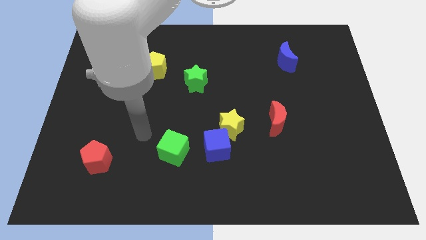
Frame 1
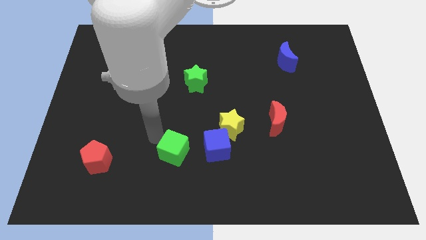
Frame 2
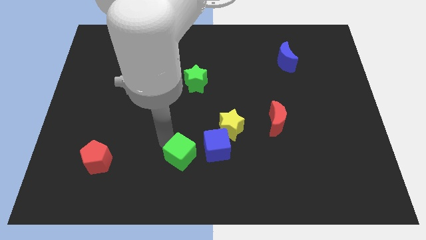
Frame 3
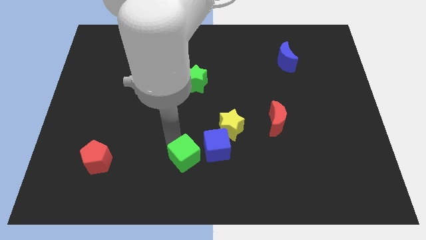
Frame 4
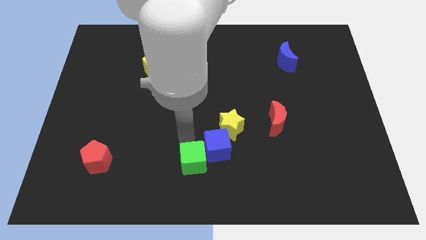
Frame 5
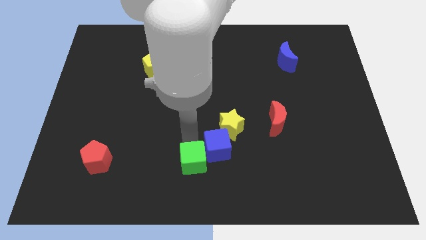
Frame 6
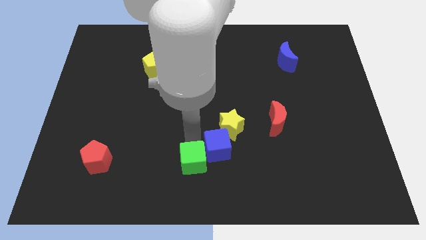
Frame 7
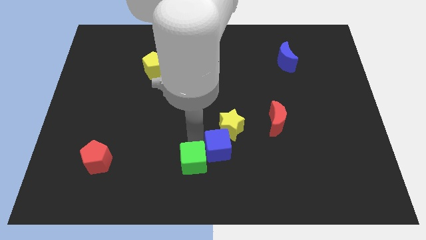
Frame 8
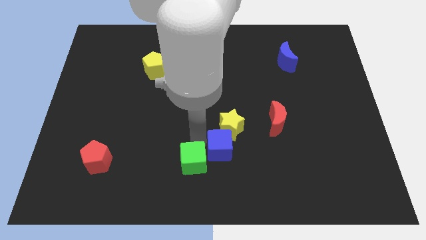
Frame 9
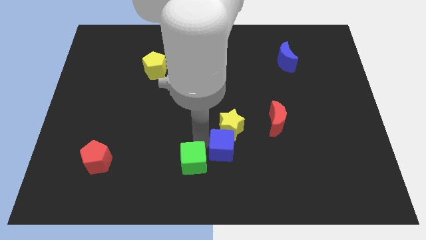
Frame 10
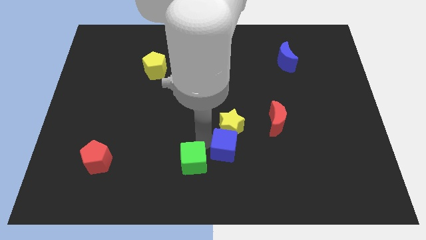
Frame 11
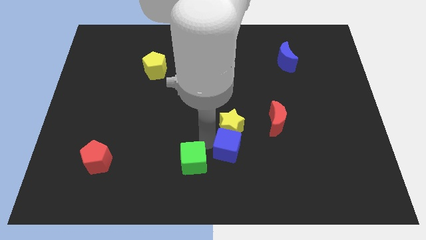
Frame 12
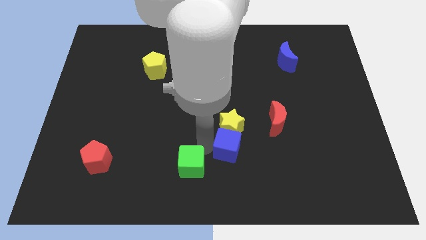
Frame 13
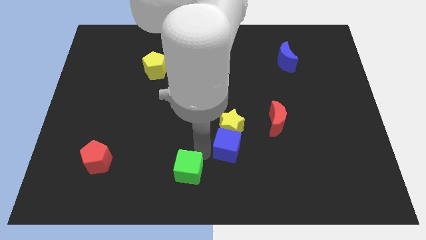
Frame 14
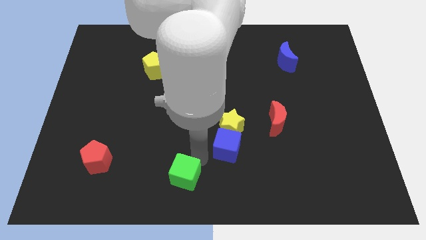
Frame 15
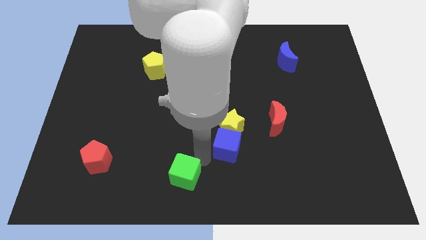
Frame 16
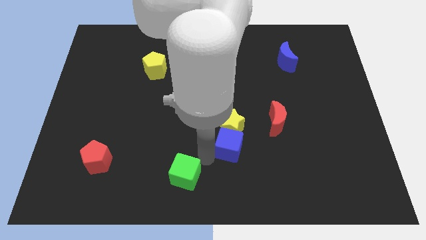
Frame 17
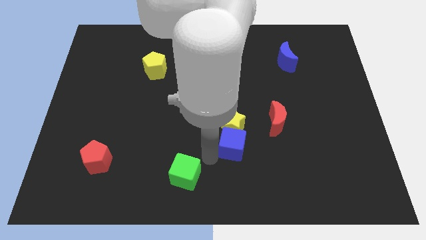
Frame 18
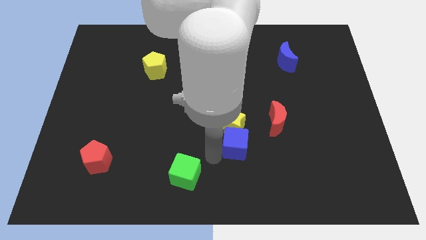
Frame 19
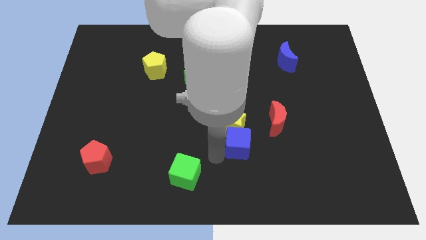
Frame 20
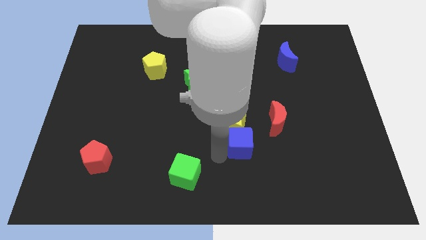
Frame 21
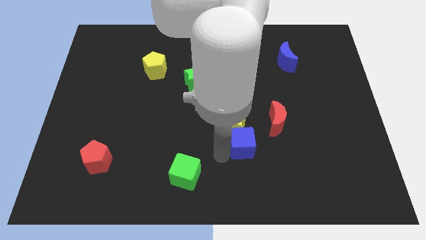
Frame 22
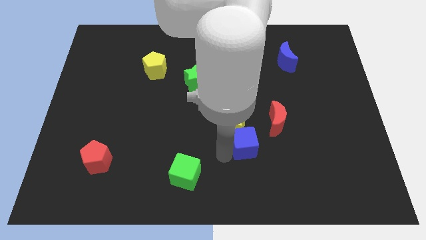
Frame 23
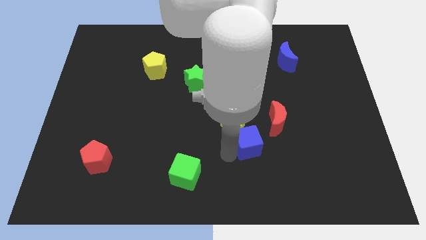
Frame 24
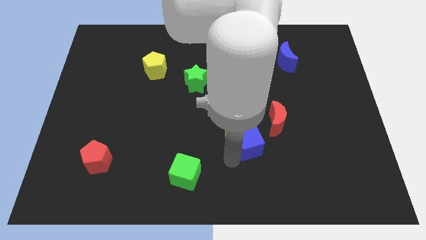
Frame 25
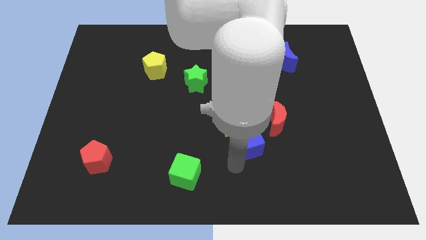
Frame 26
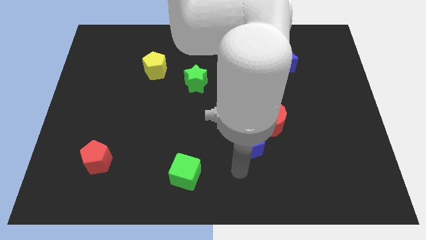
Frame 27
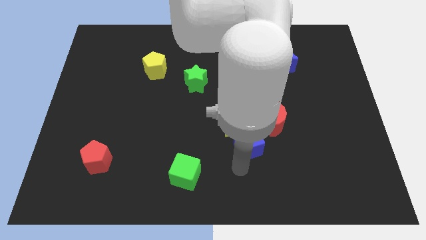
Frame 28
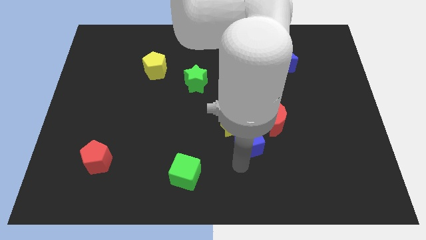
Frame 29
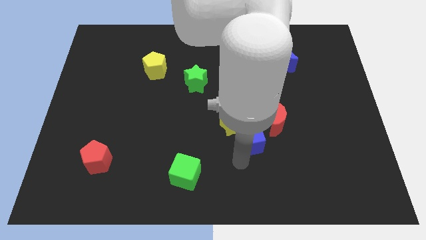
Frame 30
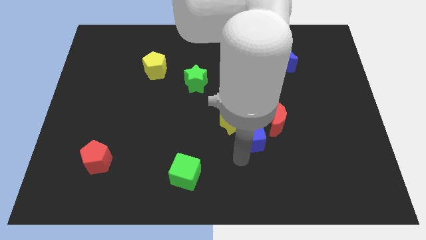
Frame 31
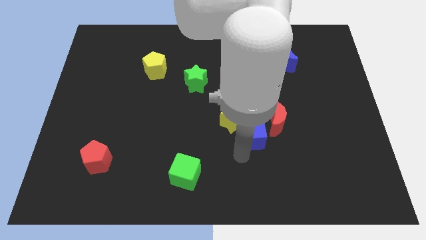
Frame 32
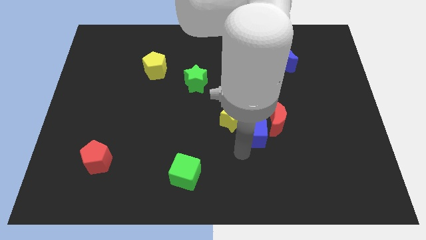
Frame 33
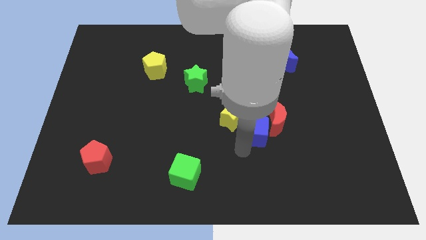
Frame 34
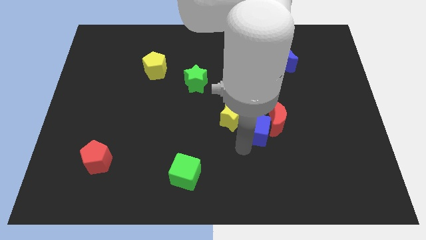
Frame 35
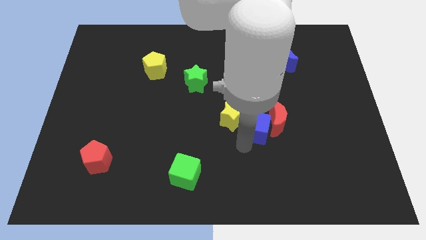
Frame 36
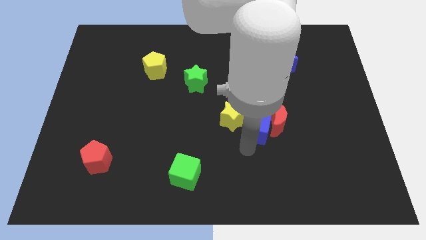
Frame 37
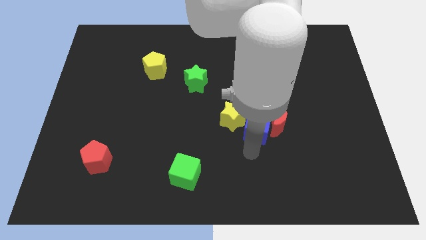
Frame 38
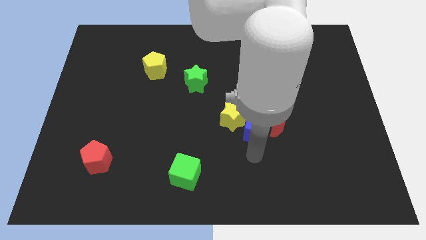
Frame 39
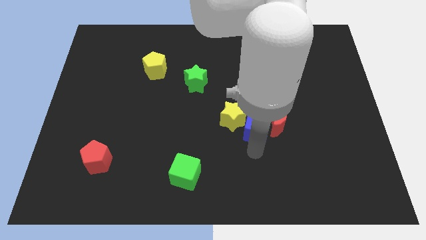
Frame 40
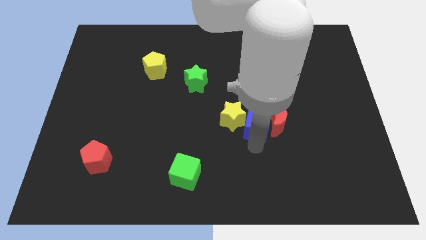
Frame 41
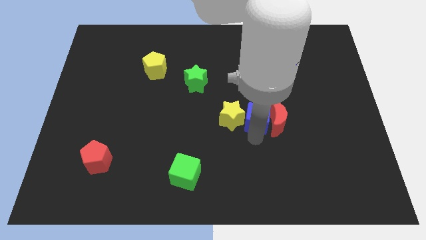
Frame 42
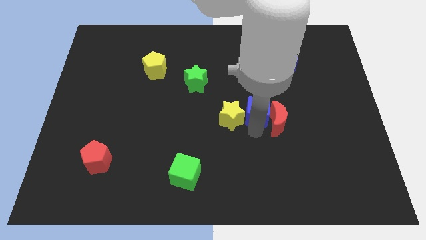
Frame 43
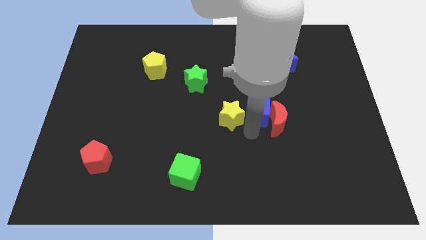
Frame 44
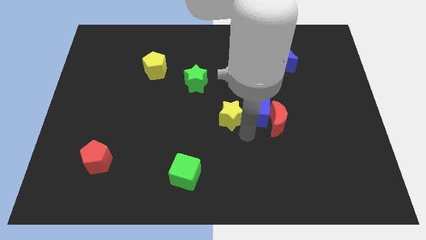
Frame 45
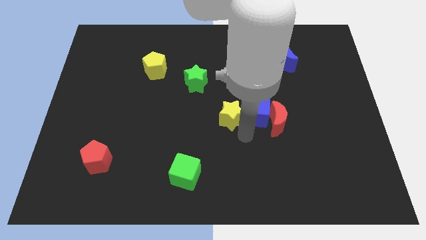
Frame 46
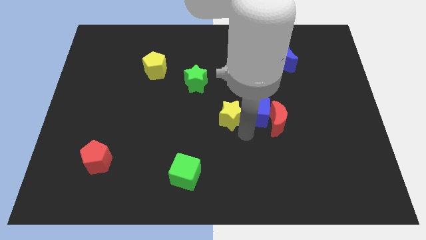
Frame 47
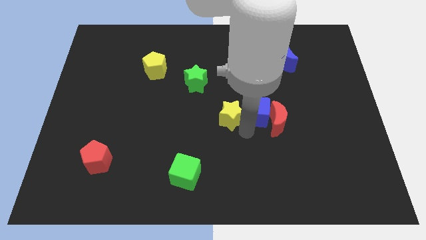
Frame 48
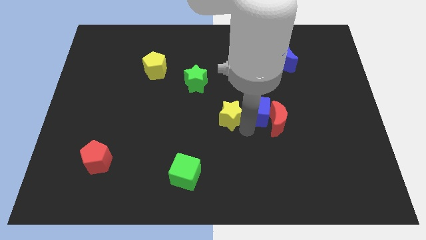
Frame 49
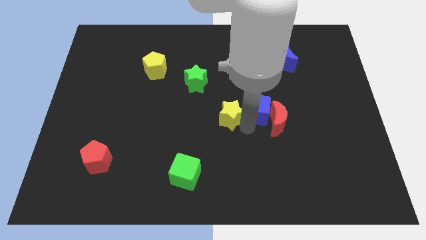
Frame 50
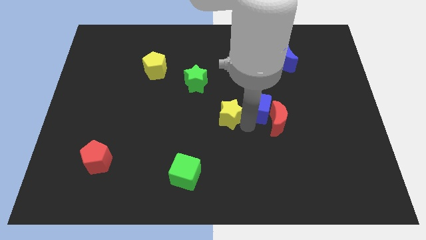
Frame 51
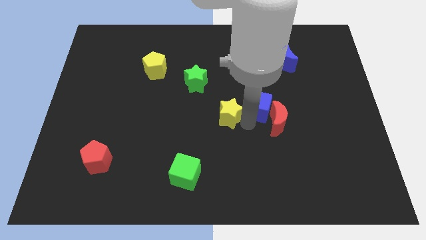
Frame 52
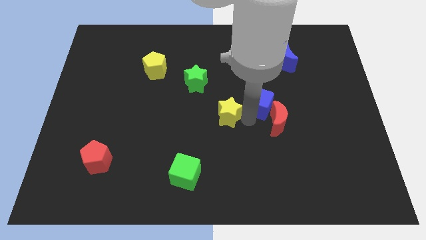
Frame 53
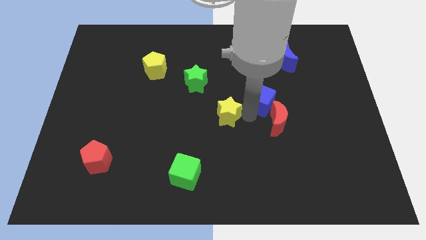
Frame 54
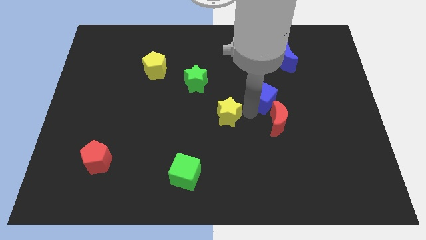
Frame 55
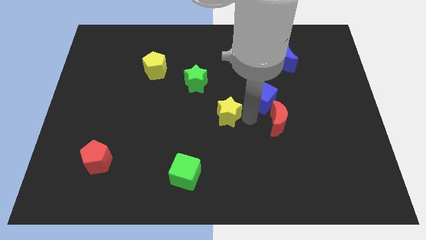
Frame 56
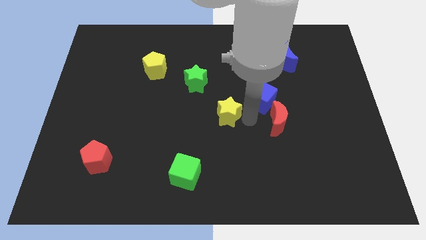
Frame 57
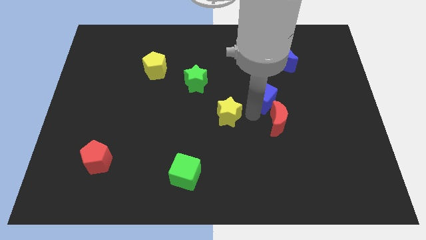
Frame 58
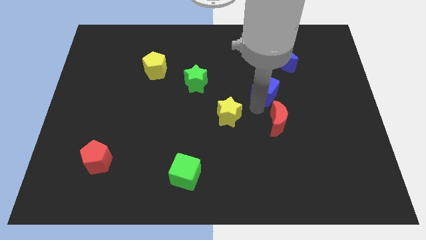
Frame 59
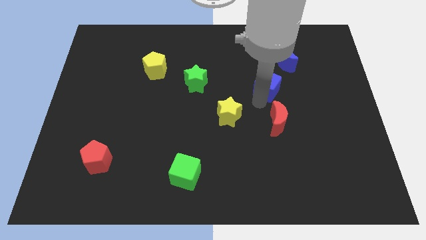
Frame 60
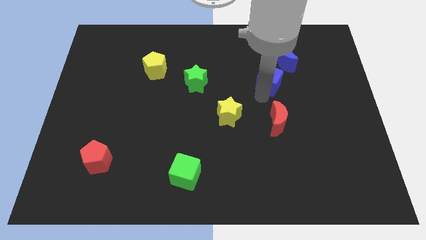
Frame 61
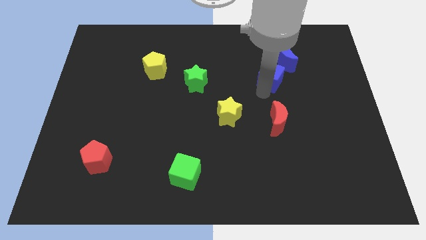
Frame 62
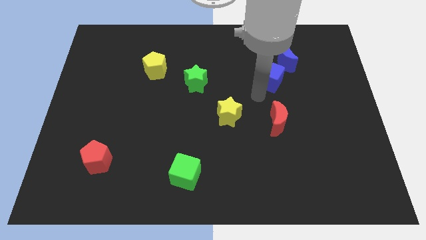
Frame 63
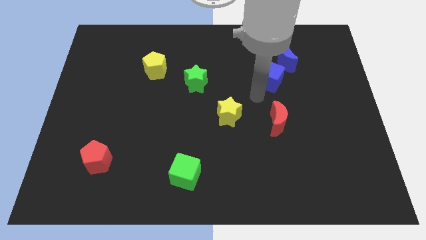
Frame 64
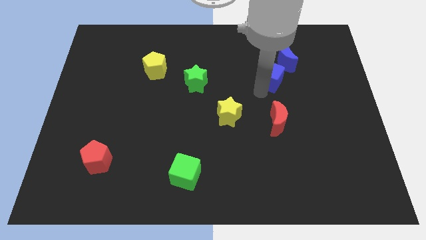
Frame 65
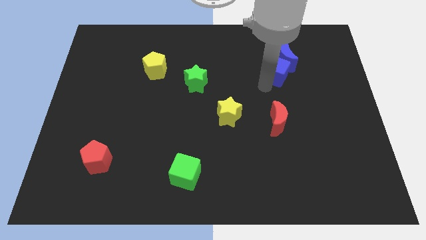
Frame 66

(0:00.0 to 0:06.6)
put the blue cube to the blue moon

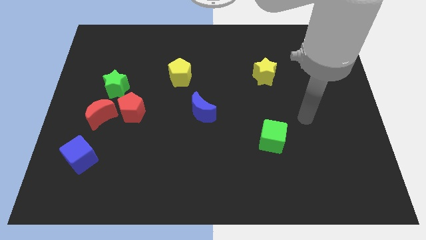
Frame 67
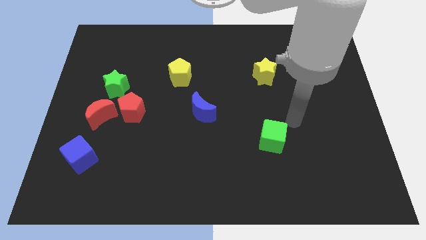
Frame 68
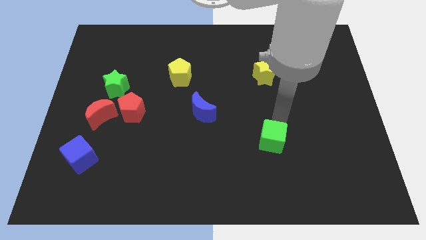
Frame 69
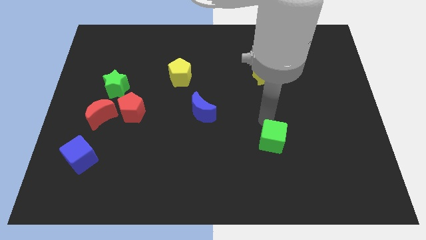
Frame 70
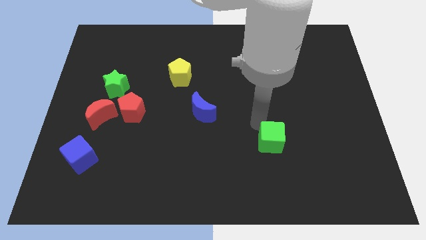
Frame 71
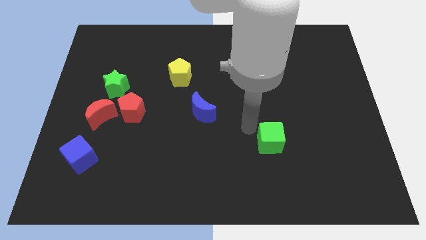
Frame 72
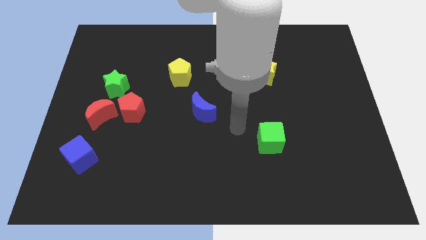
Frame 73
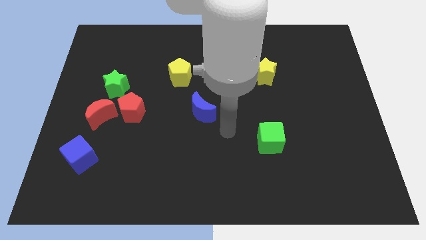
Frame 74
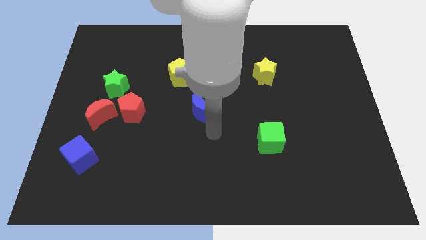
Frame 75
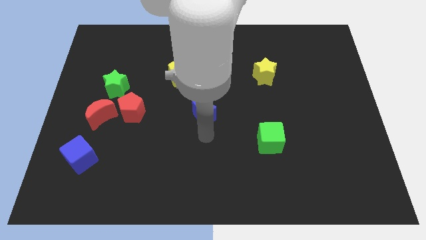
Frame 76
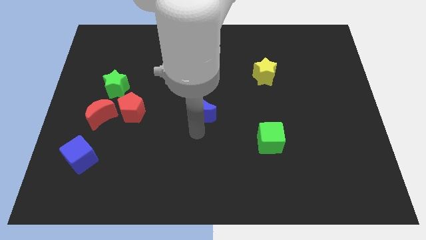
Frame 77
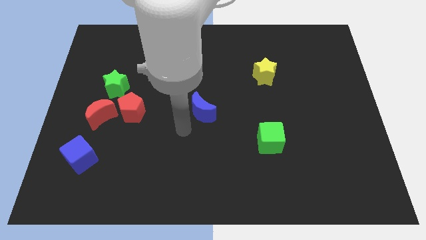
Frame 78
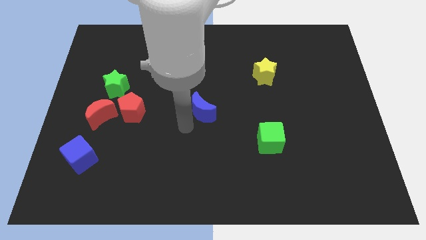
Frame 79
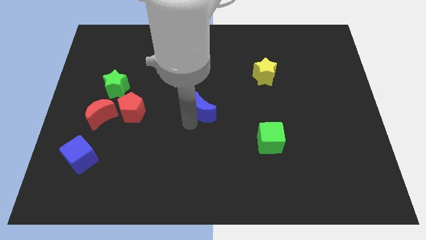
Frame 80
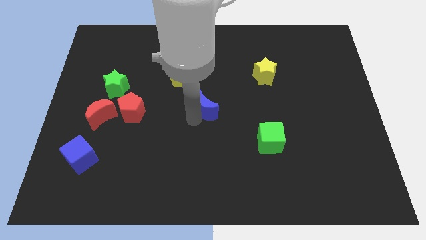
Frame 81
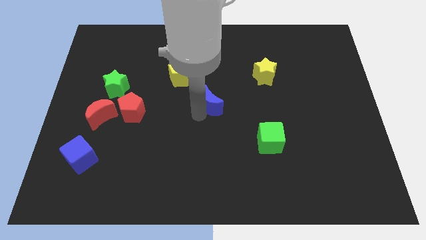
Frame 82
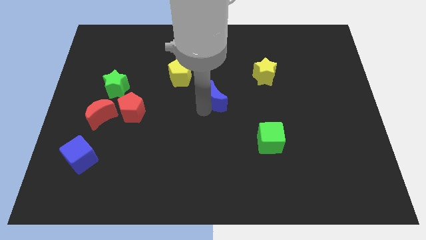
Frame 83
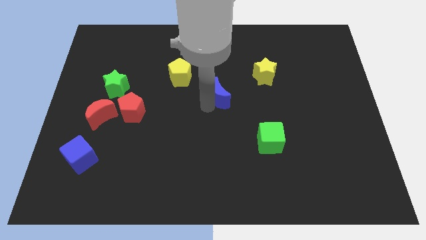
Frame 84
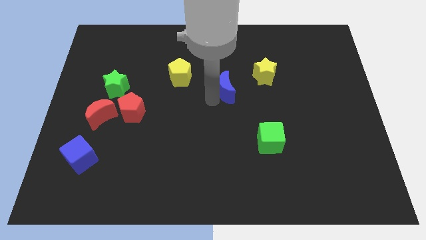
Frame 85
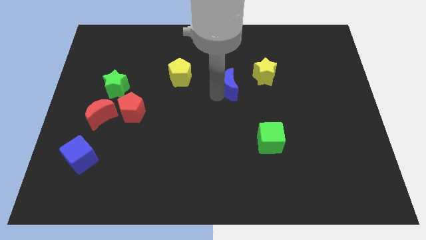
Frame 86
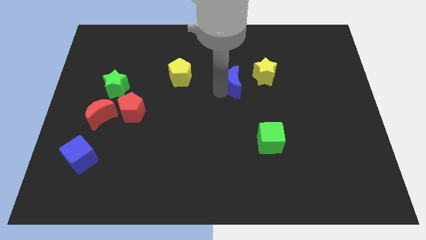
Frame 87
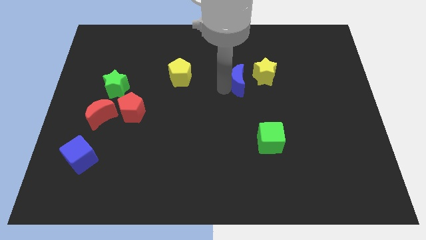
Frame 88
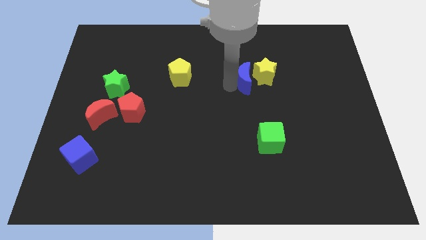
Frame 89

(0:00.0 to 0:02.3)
push the blue moon next to the yellow star
